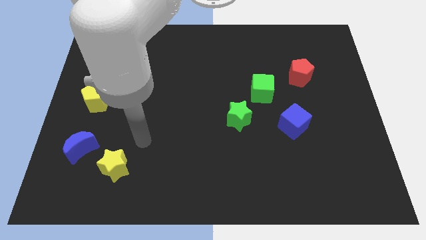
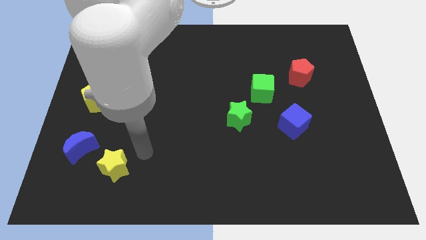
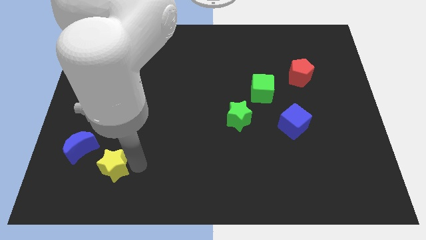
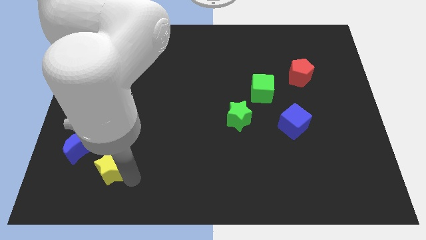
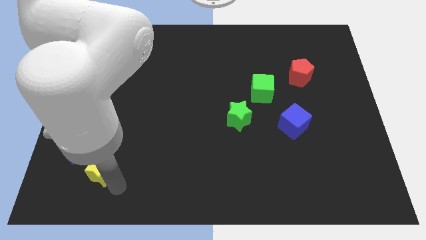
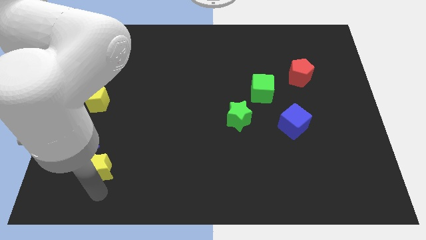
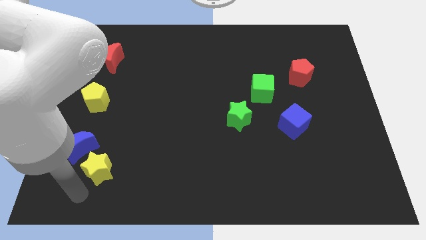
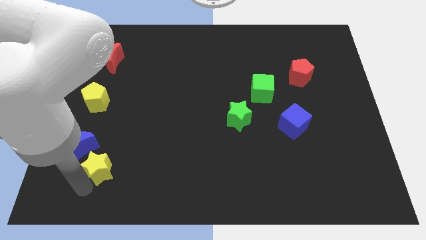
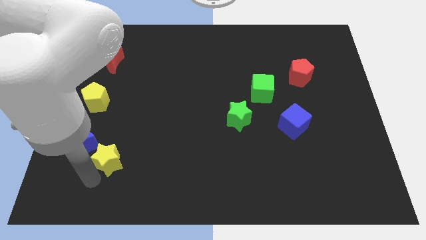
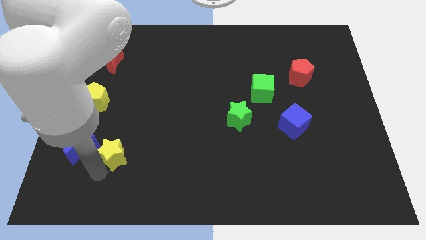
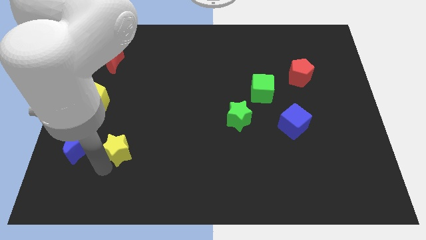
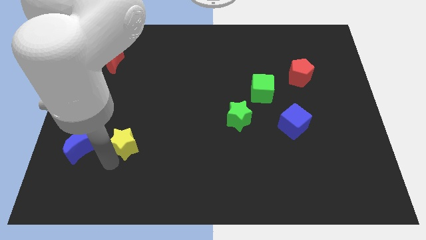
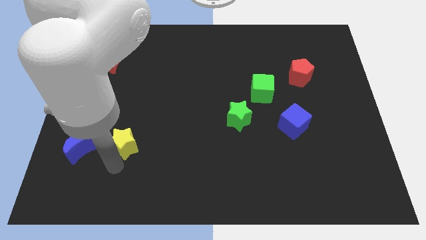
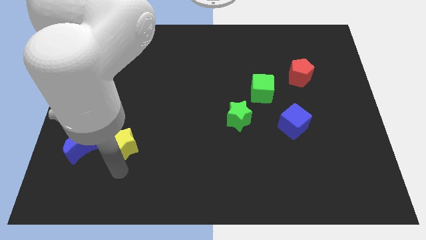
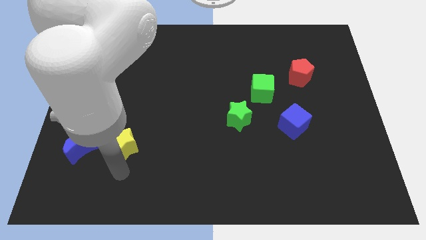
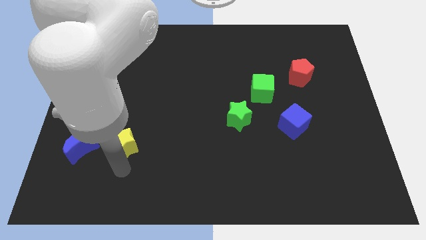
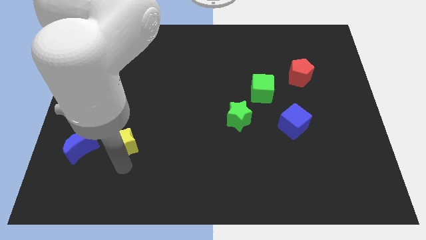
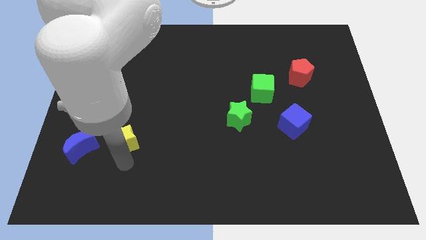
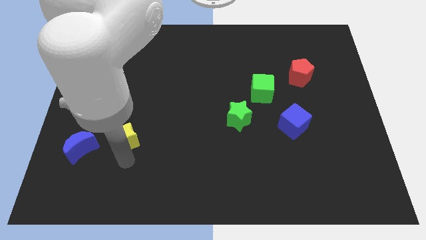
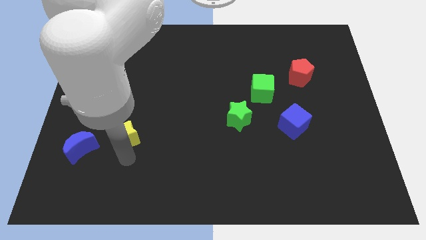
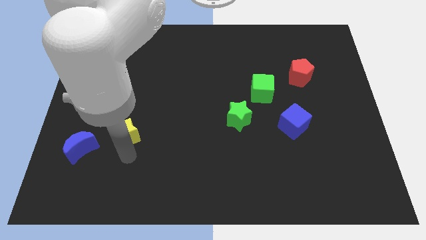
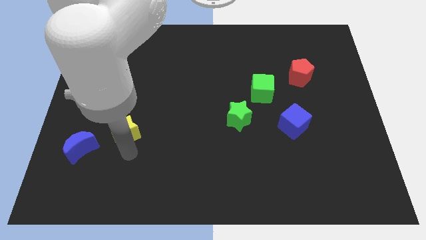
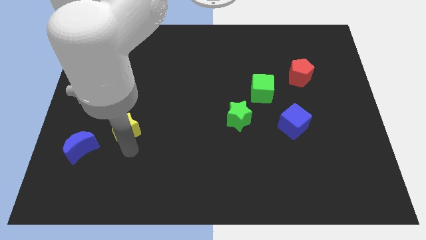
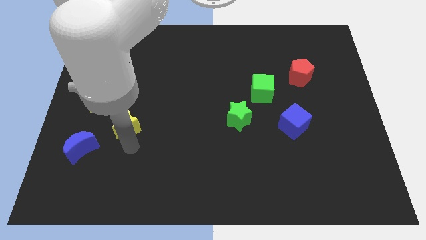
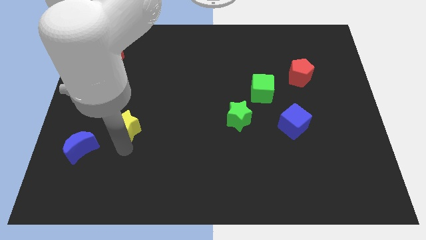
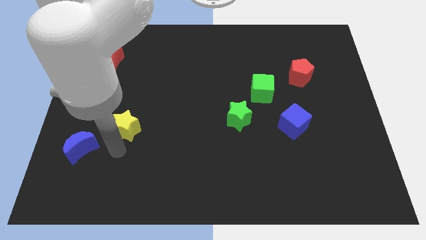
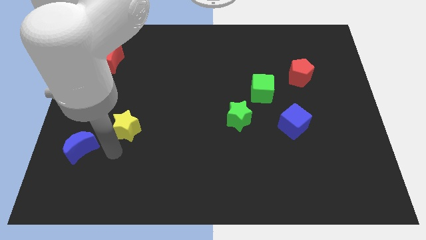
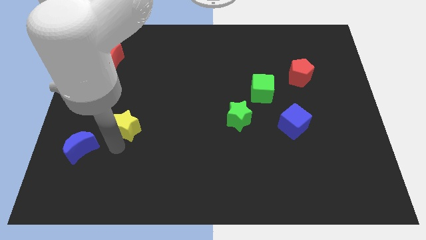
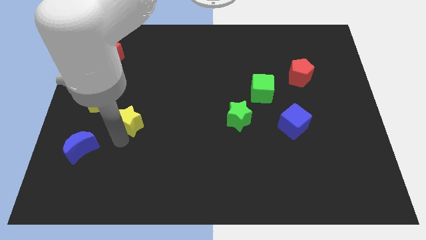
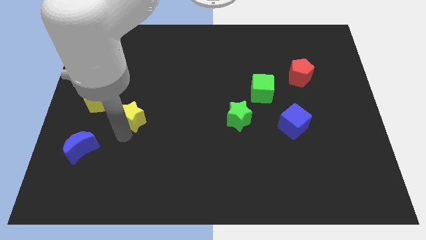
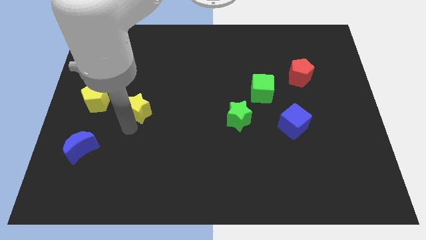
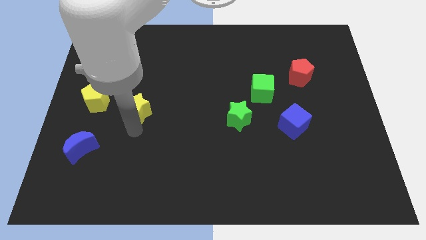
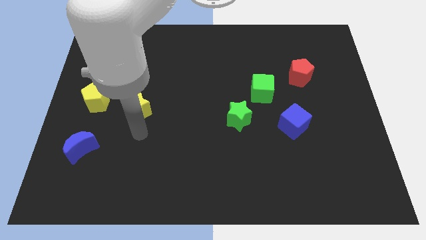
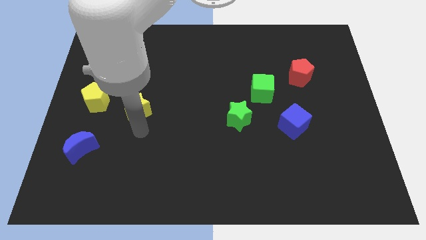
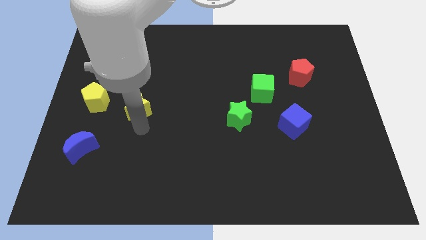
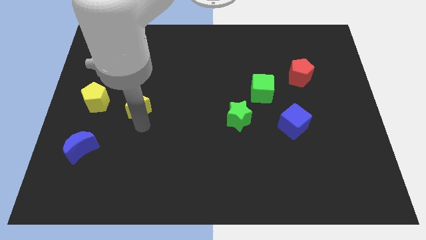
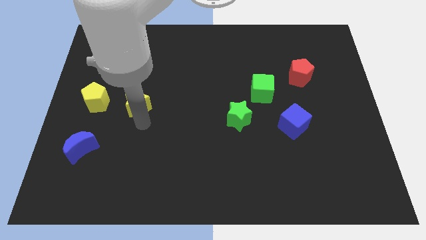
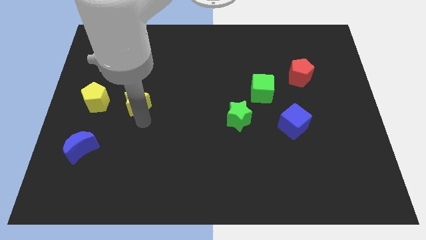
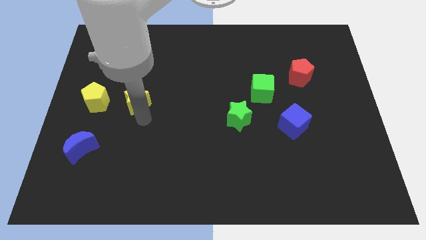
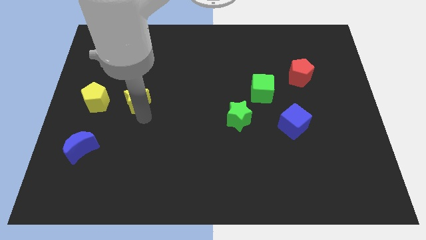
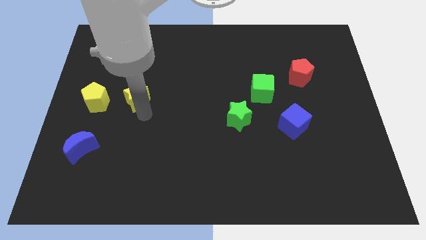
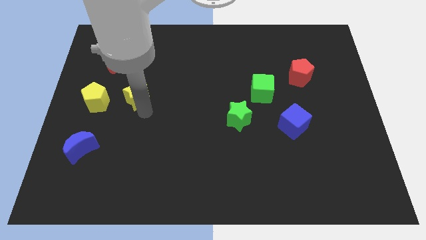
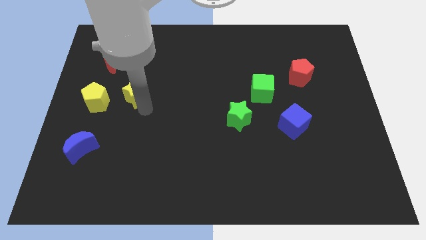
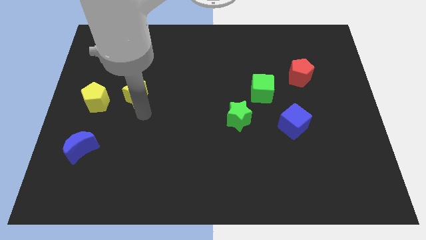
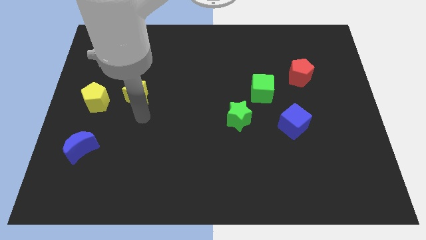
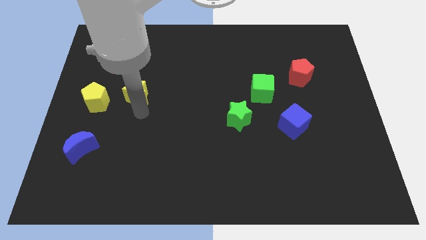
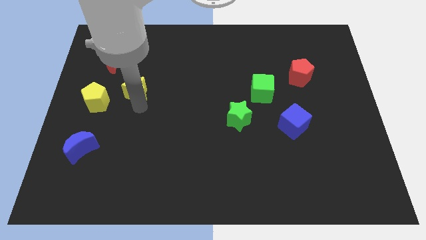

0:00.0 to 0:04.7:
move the yellow star upwards

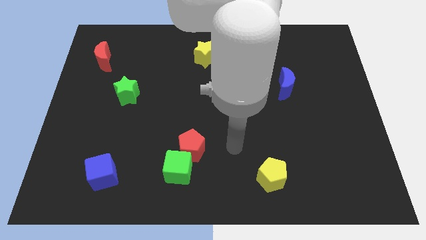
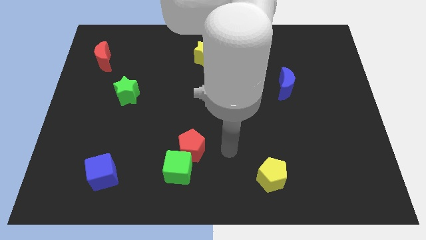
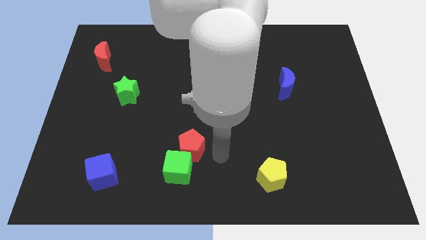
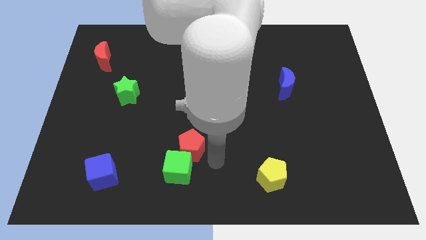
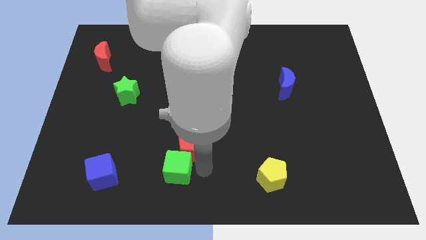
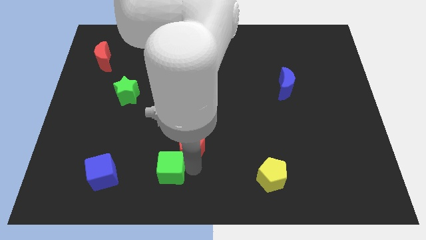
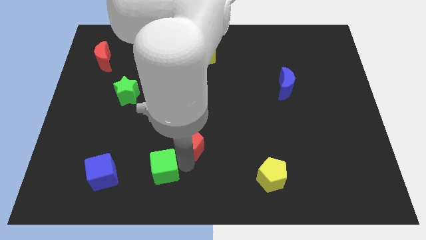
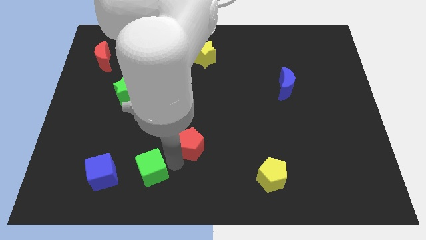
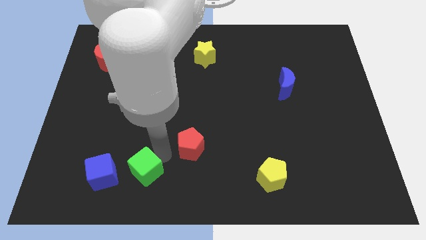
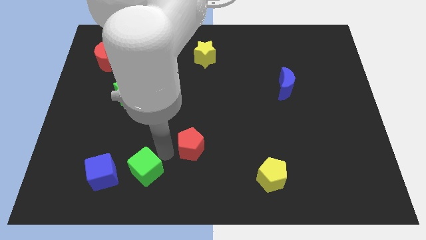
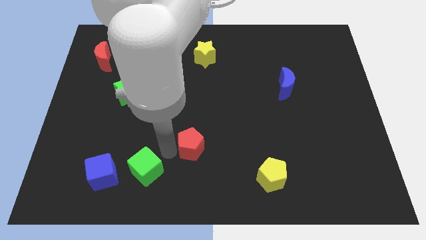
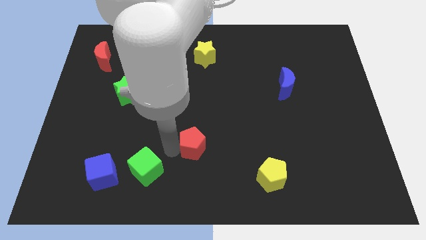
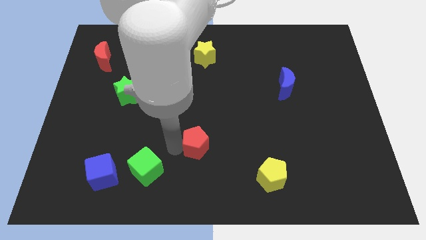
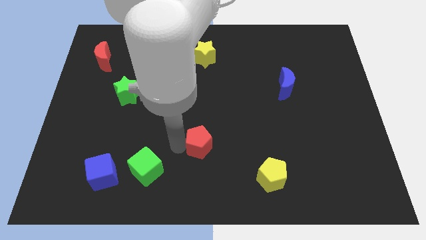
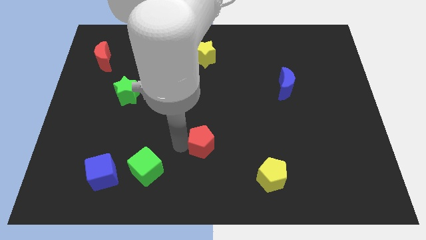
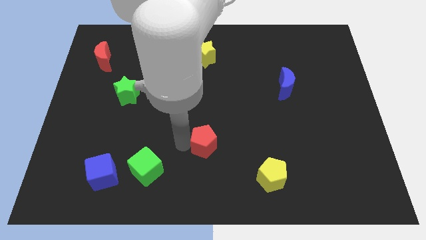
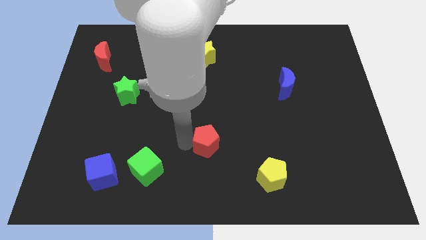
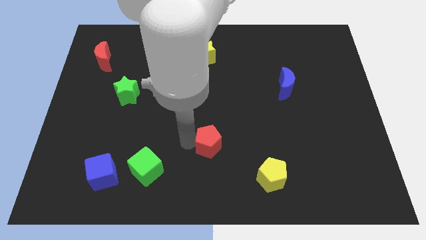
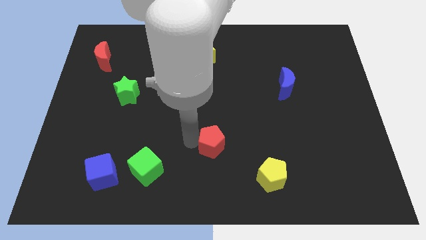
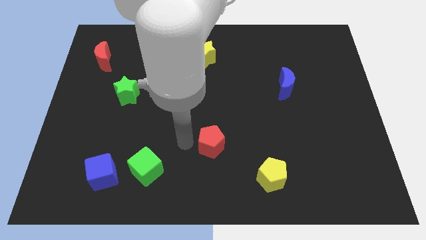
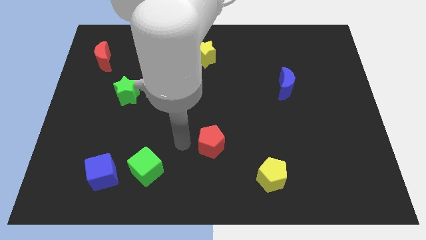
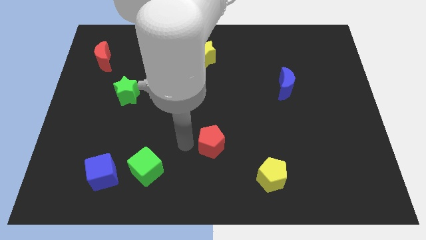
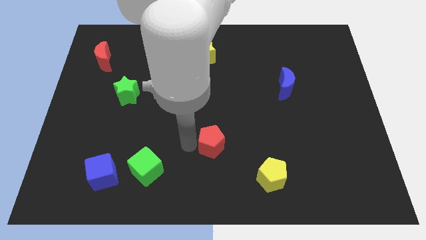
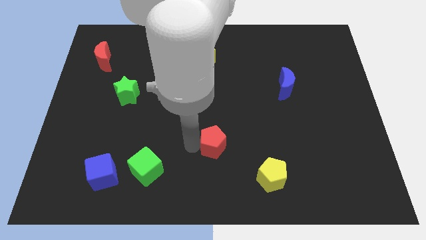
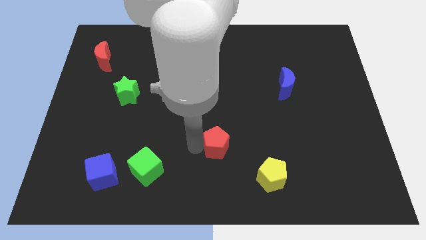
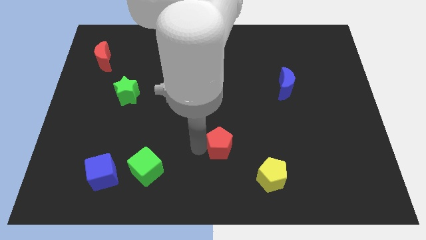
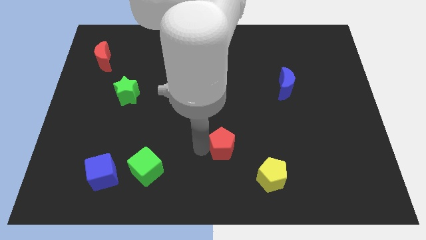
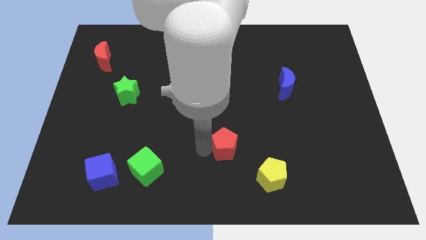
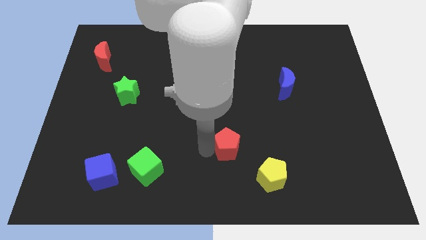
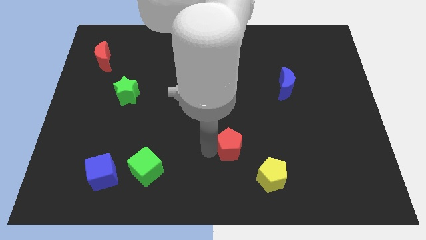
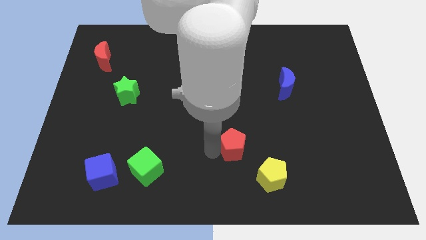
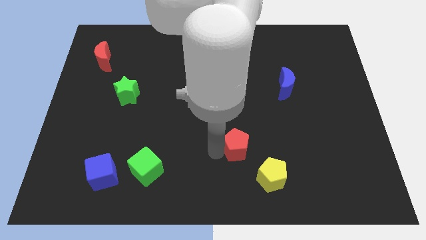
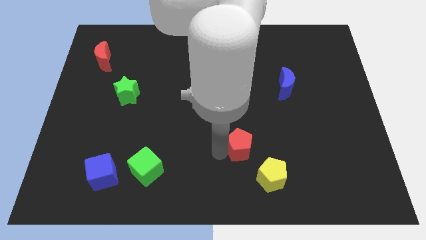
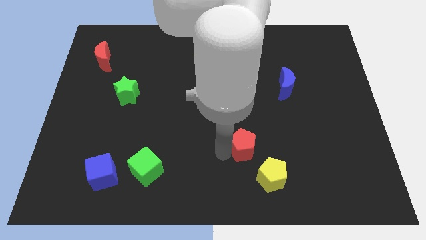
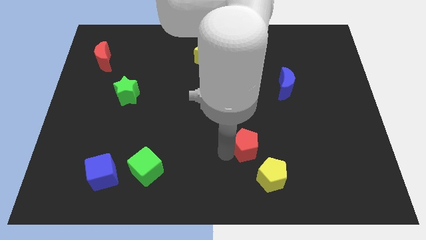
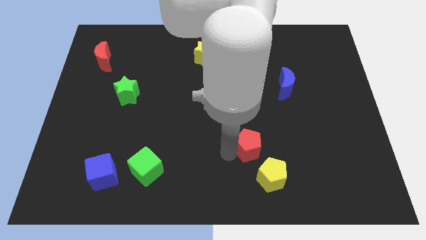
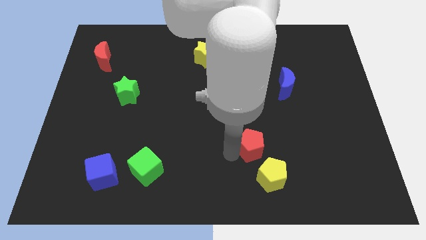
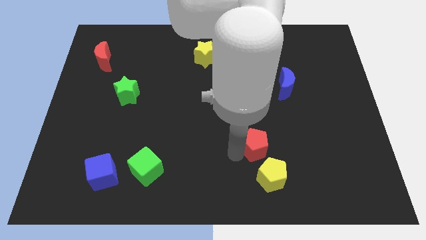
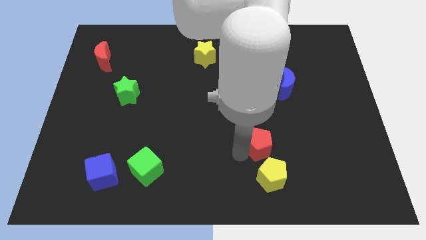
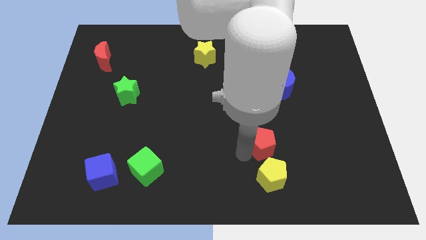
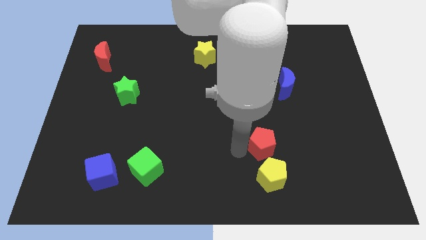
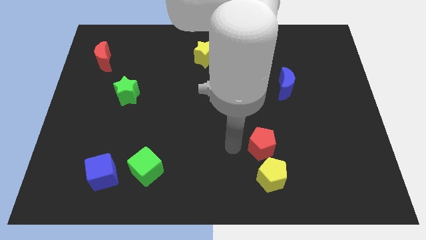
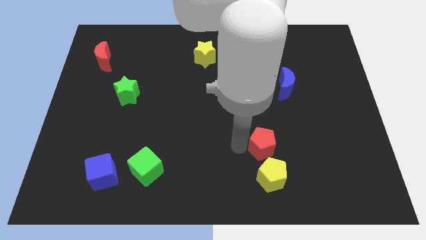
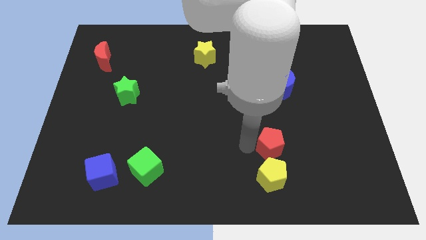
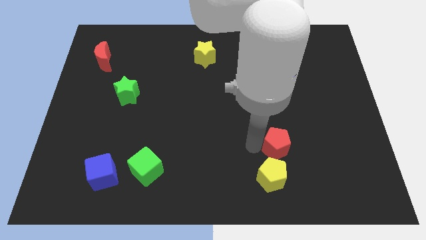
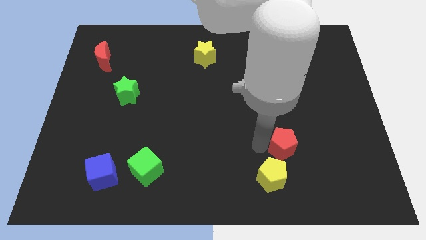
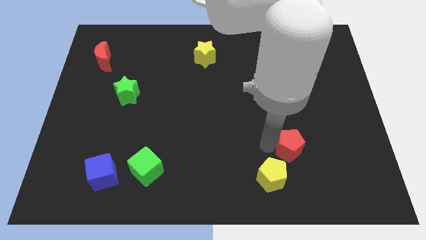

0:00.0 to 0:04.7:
move the red pentagon to the right
